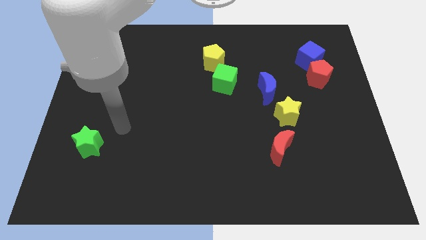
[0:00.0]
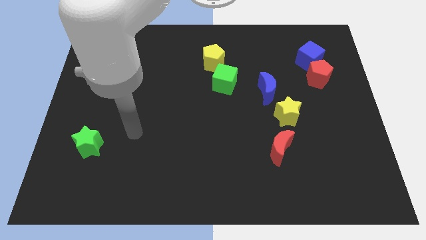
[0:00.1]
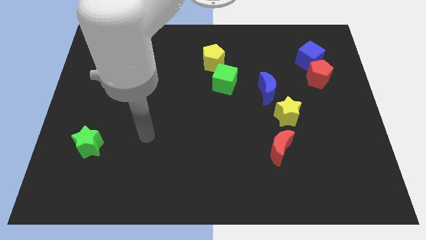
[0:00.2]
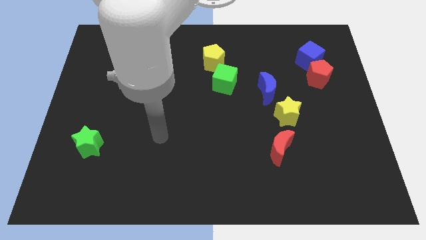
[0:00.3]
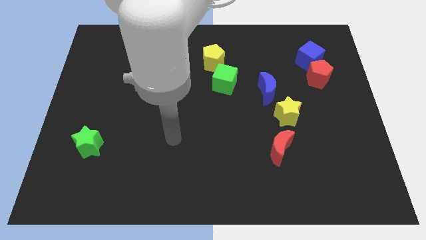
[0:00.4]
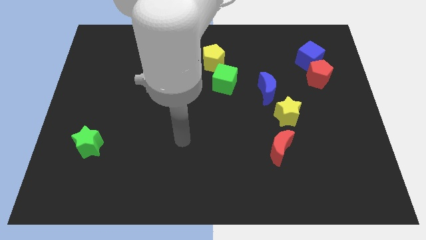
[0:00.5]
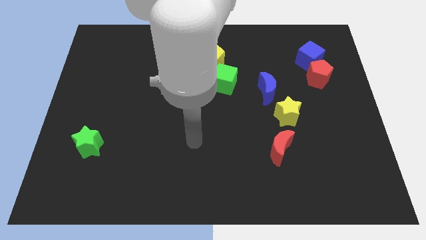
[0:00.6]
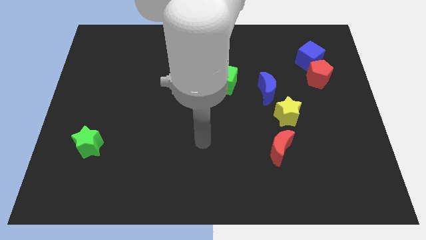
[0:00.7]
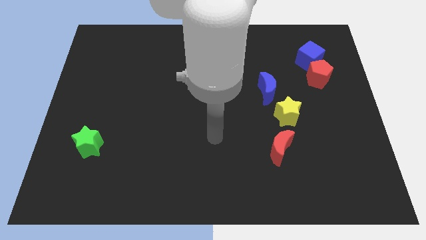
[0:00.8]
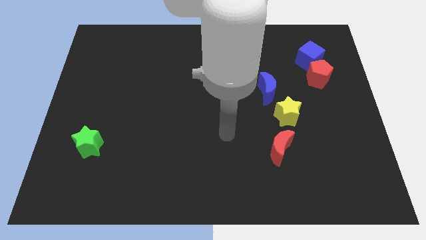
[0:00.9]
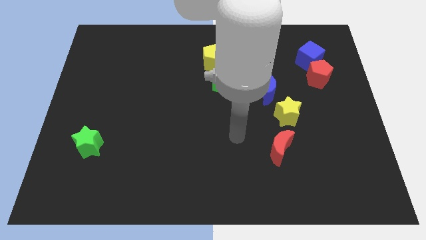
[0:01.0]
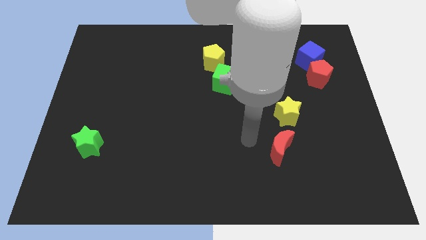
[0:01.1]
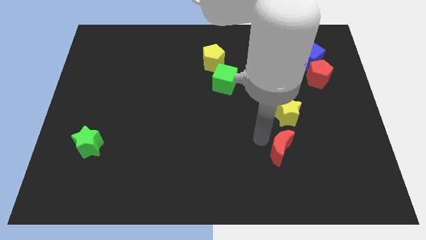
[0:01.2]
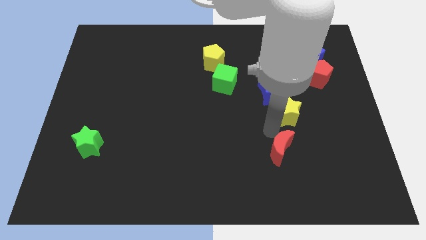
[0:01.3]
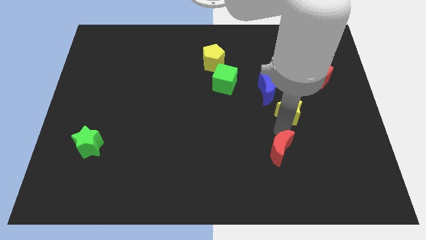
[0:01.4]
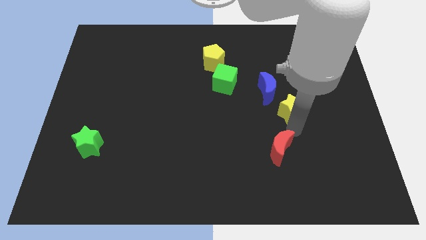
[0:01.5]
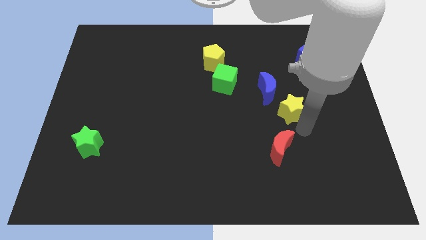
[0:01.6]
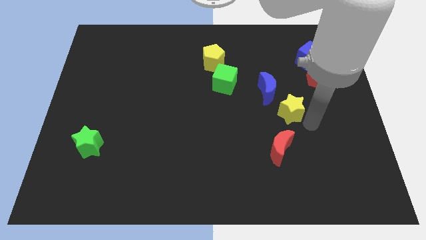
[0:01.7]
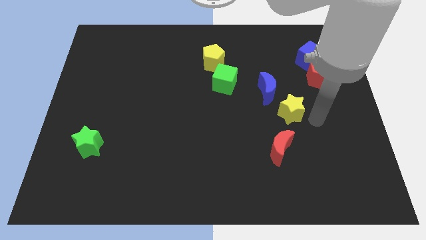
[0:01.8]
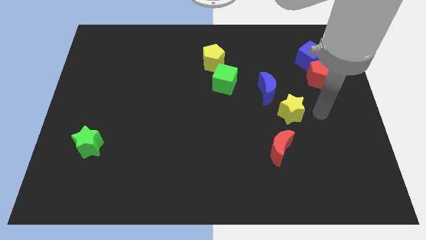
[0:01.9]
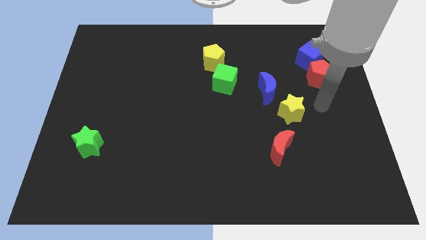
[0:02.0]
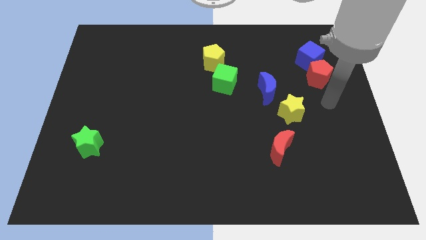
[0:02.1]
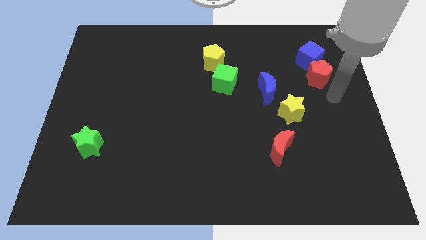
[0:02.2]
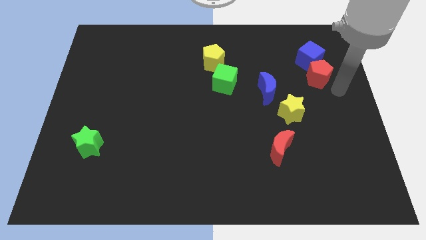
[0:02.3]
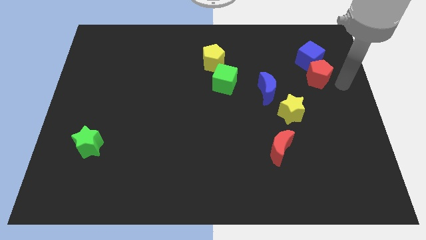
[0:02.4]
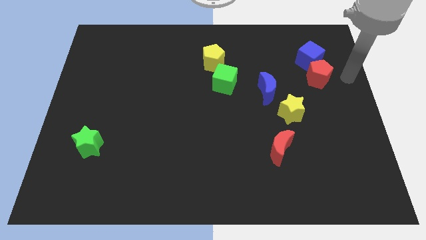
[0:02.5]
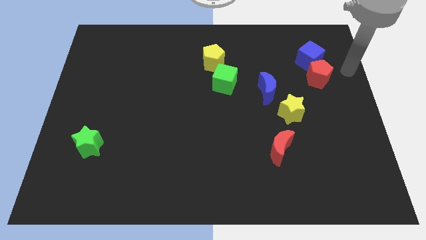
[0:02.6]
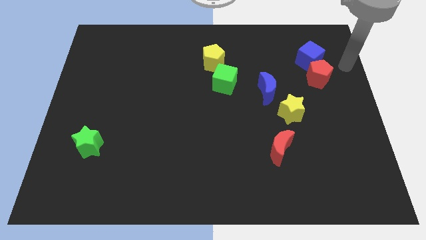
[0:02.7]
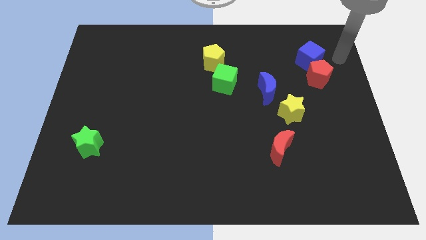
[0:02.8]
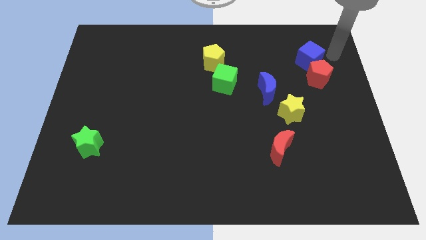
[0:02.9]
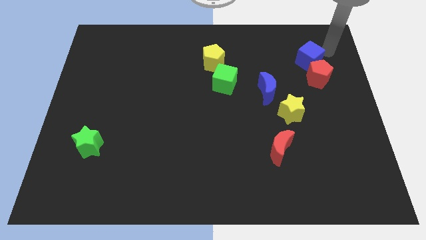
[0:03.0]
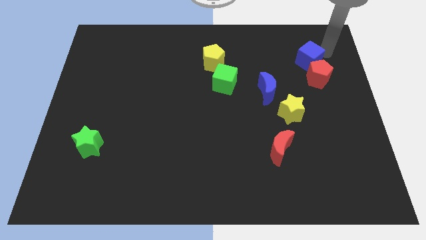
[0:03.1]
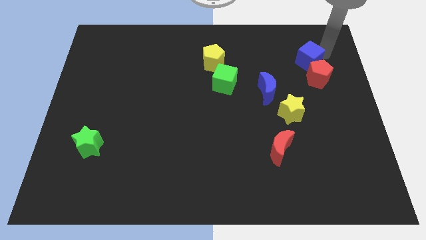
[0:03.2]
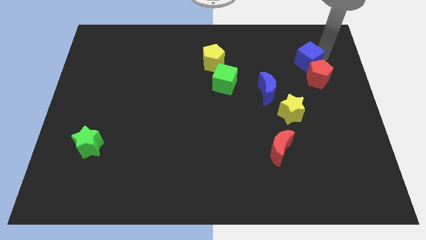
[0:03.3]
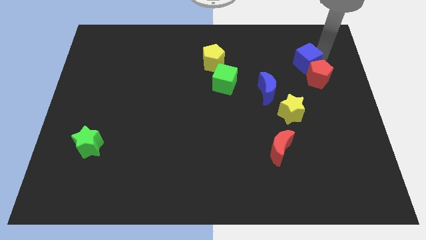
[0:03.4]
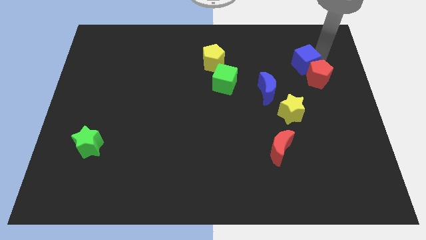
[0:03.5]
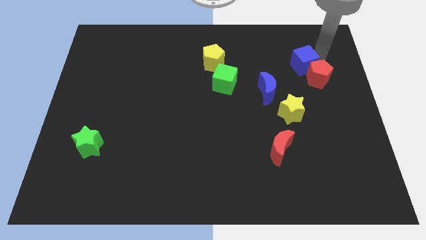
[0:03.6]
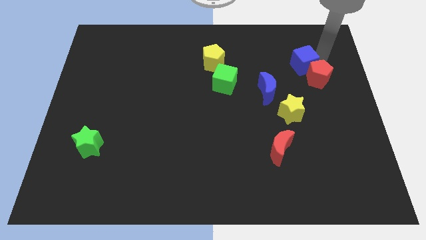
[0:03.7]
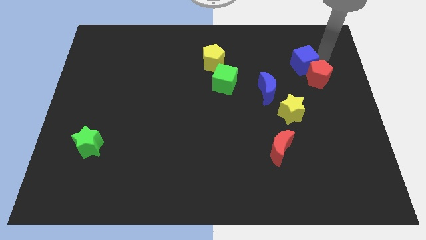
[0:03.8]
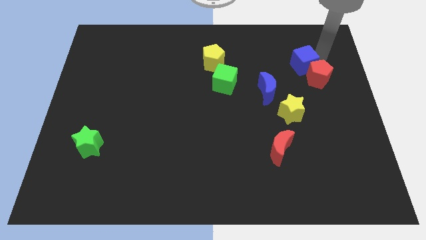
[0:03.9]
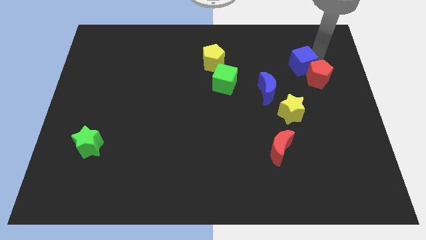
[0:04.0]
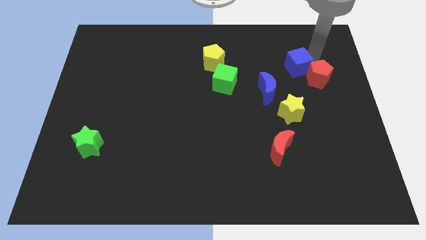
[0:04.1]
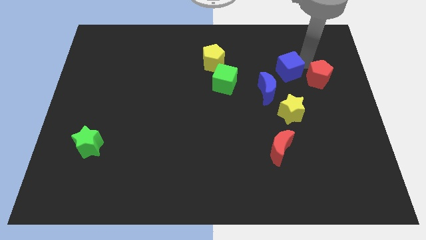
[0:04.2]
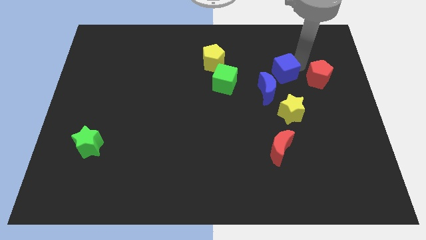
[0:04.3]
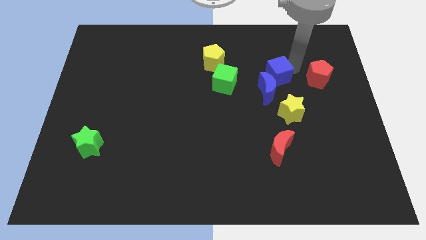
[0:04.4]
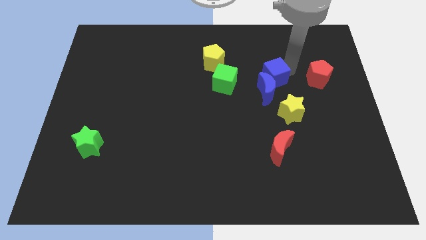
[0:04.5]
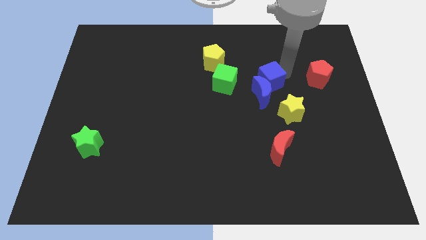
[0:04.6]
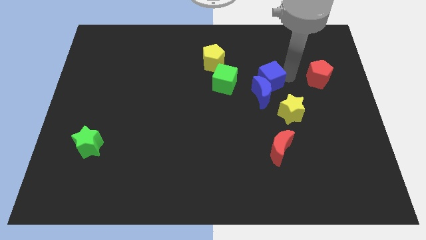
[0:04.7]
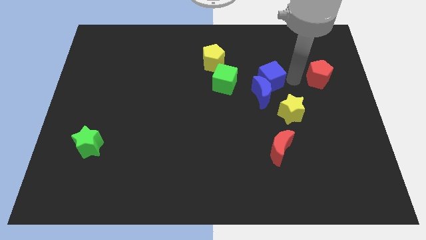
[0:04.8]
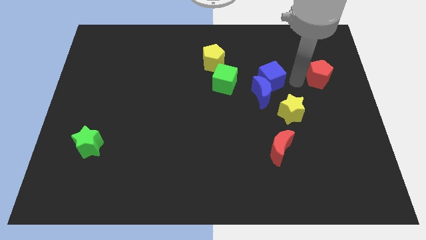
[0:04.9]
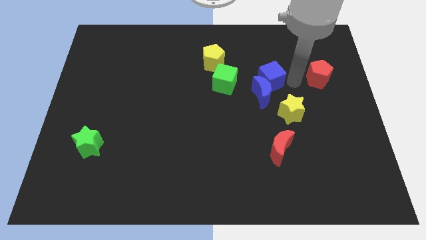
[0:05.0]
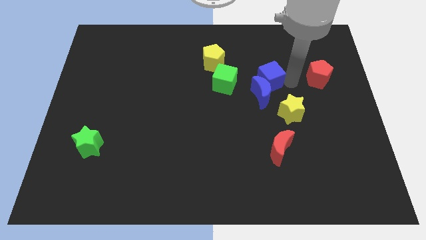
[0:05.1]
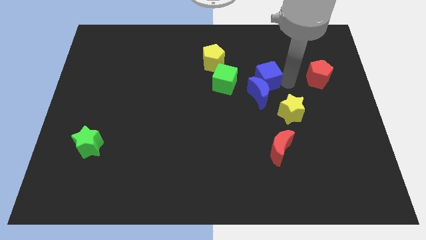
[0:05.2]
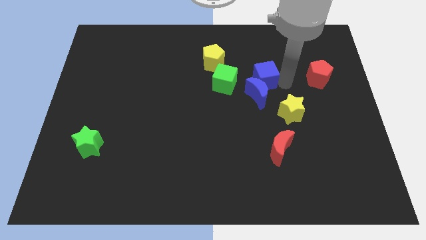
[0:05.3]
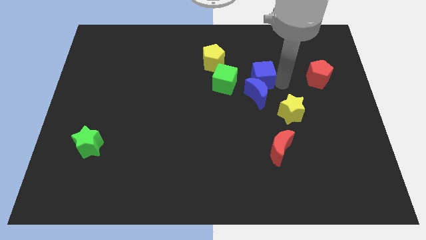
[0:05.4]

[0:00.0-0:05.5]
move the blue cube to the top left side of the blue moon

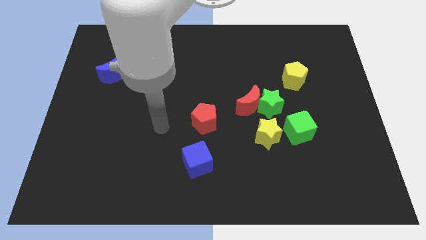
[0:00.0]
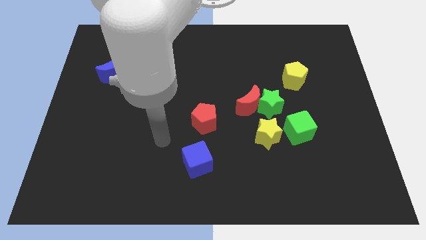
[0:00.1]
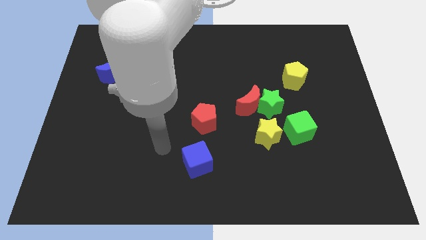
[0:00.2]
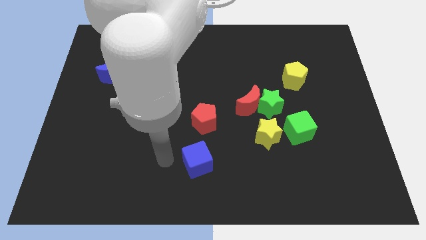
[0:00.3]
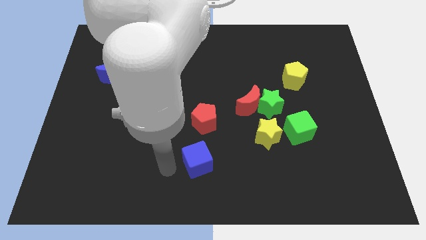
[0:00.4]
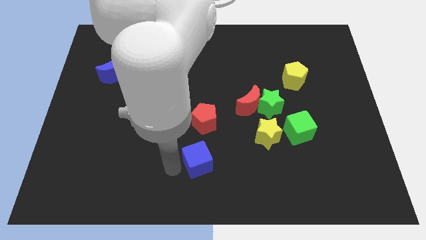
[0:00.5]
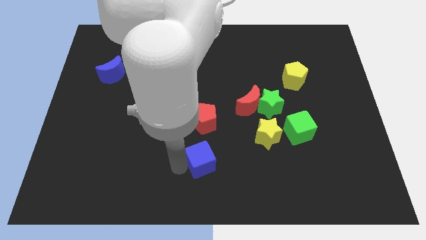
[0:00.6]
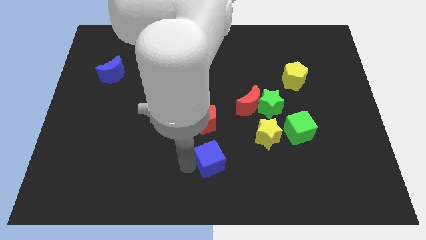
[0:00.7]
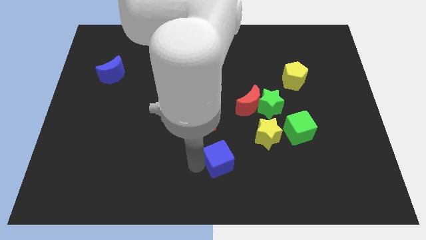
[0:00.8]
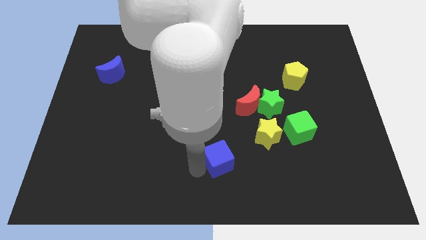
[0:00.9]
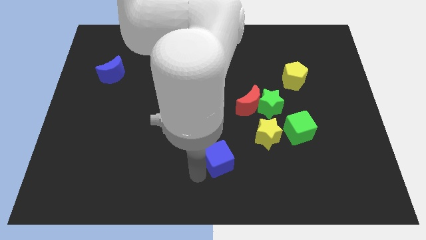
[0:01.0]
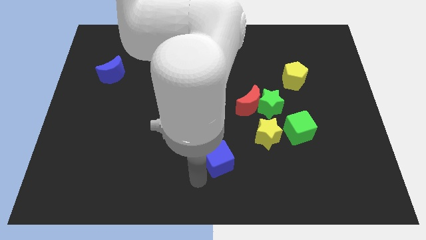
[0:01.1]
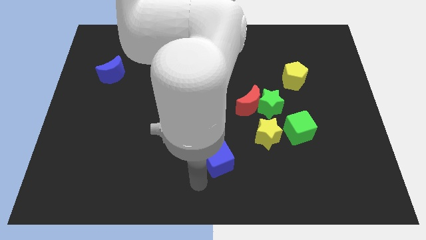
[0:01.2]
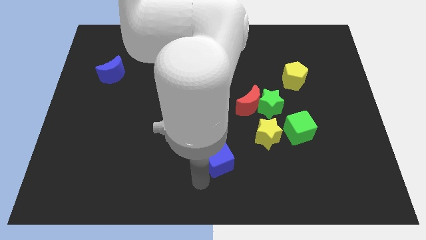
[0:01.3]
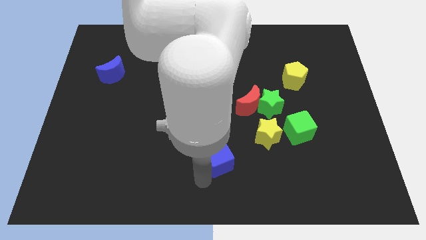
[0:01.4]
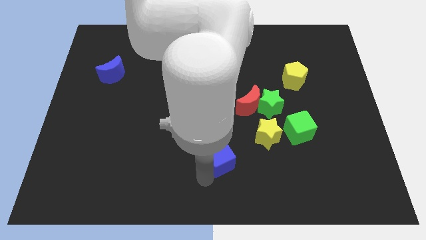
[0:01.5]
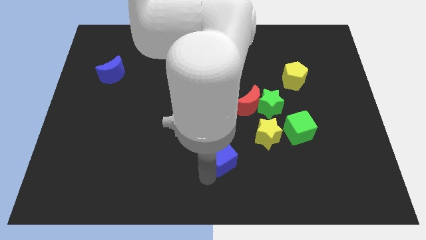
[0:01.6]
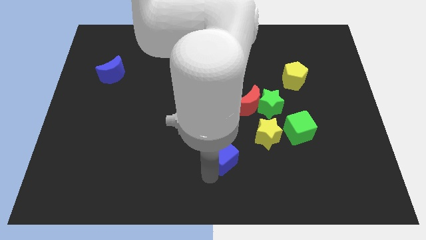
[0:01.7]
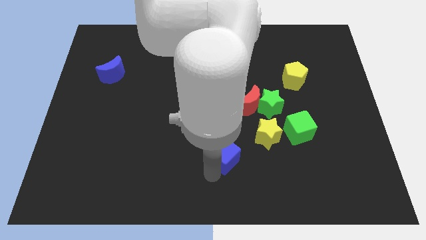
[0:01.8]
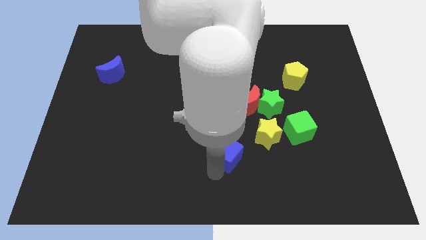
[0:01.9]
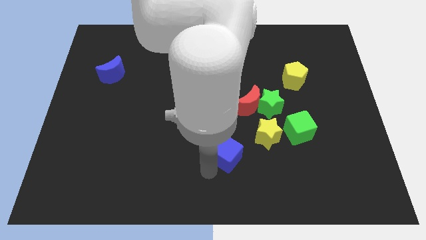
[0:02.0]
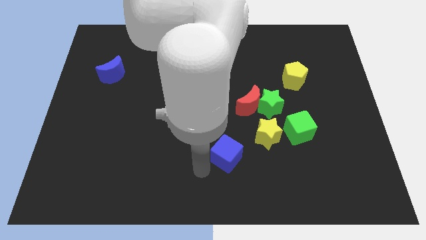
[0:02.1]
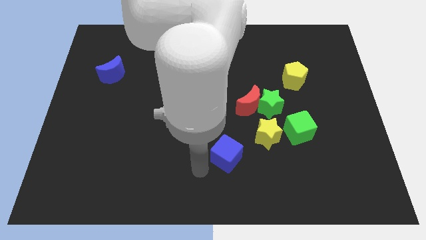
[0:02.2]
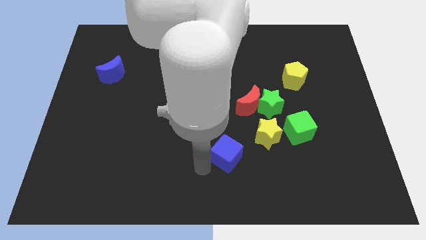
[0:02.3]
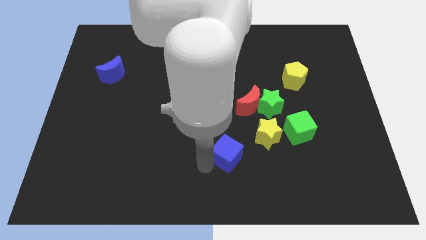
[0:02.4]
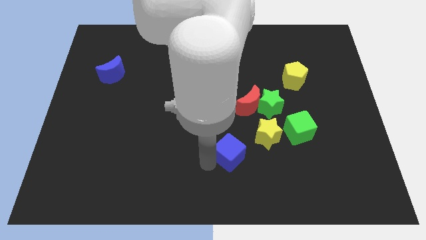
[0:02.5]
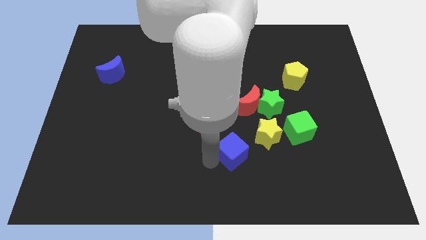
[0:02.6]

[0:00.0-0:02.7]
move the blue cube to the bottom side of the red moon
